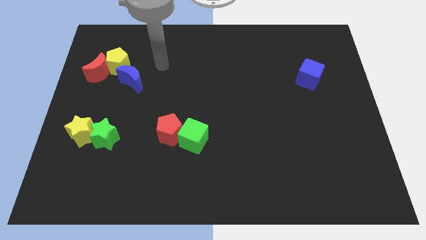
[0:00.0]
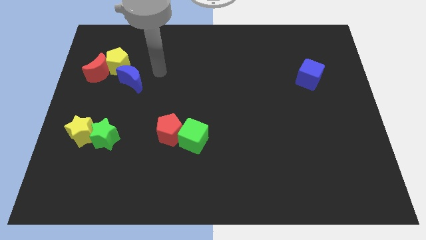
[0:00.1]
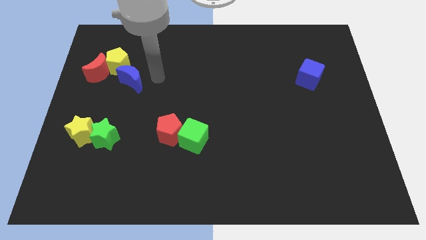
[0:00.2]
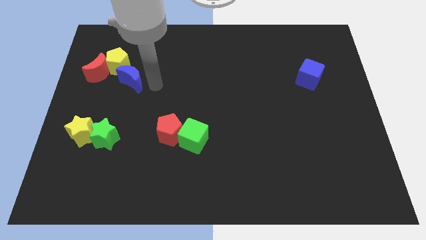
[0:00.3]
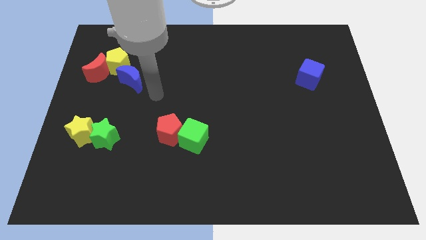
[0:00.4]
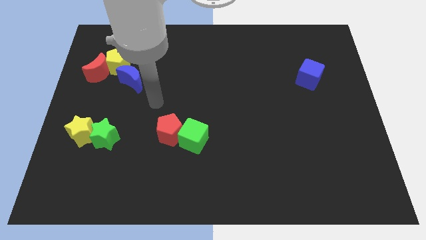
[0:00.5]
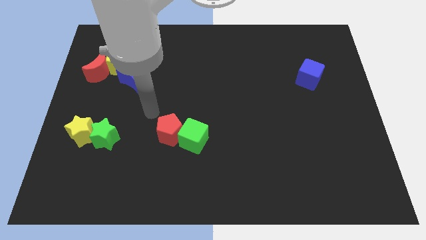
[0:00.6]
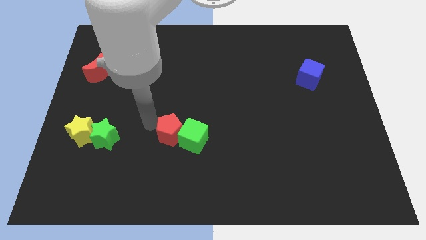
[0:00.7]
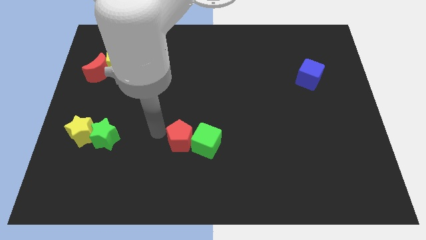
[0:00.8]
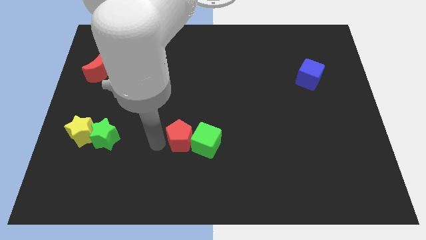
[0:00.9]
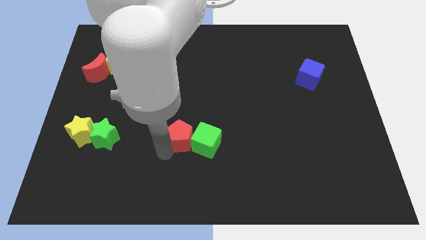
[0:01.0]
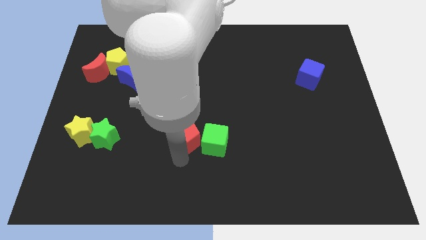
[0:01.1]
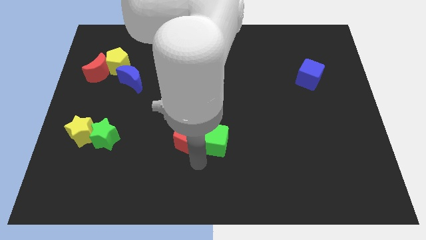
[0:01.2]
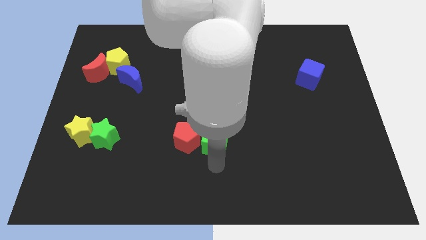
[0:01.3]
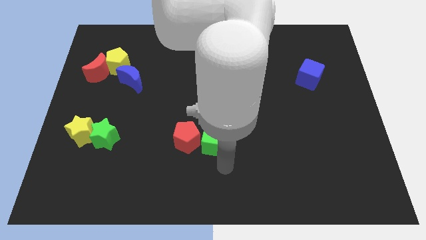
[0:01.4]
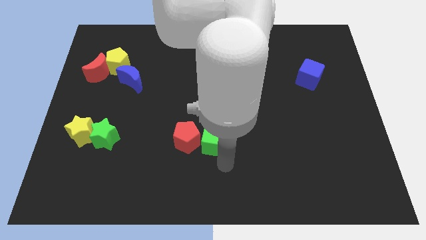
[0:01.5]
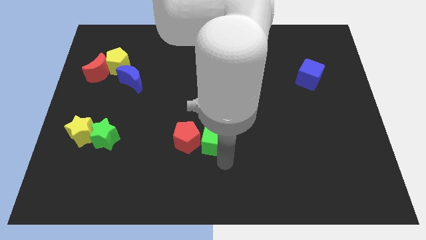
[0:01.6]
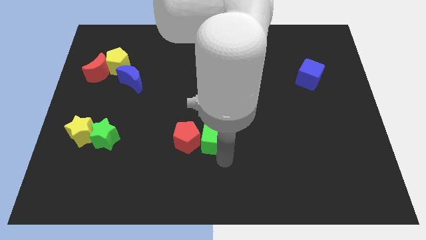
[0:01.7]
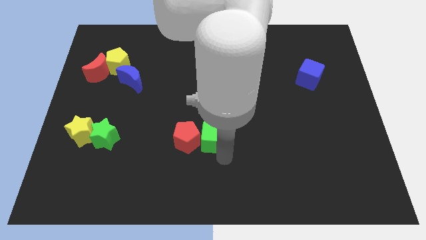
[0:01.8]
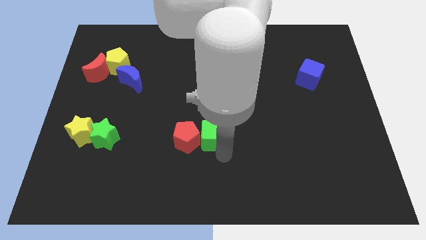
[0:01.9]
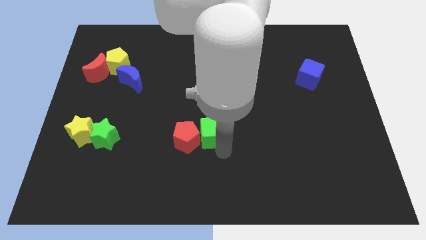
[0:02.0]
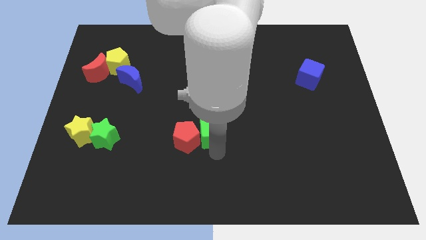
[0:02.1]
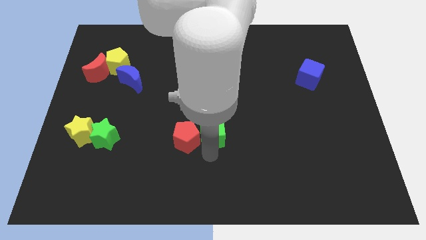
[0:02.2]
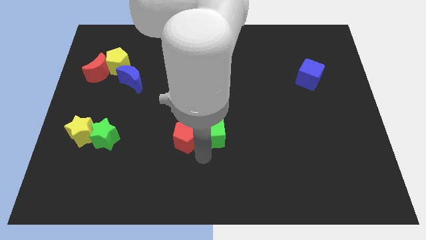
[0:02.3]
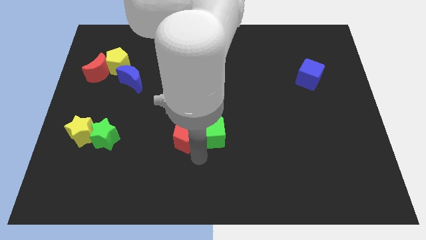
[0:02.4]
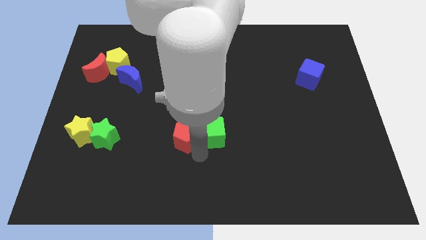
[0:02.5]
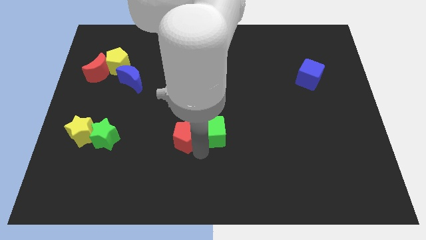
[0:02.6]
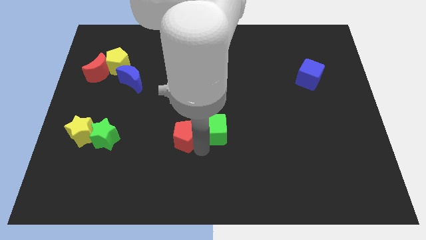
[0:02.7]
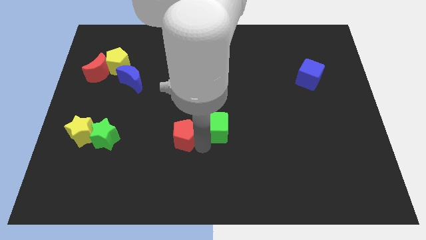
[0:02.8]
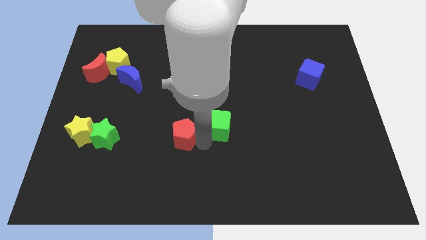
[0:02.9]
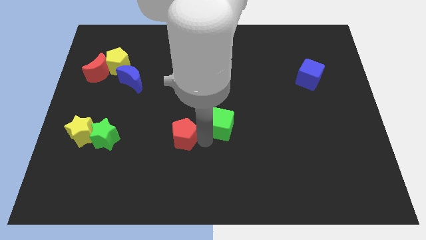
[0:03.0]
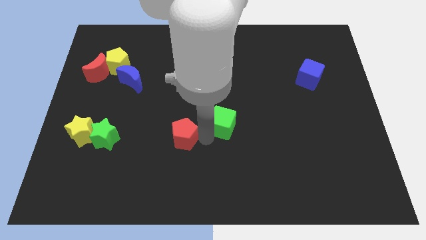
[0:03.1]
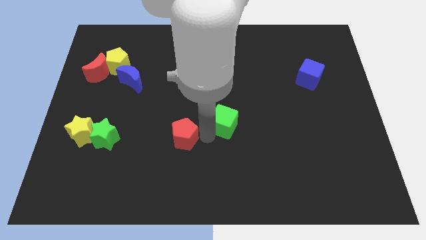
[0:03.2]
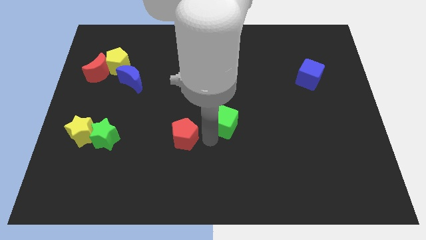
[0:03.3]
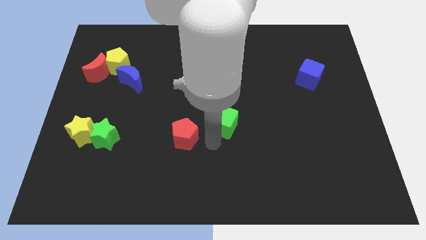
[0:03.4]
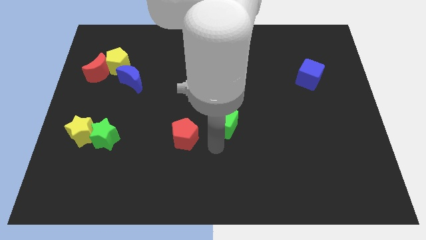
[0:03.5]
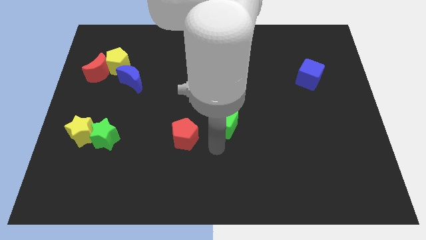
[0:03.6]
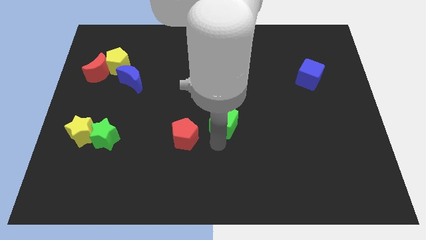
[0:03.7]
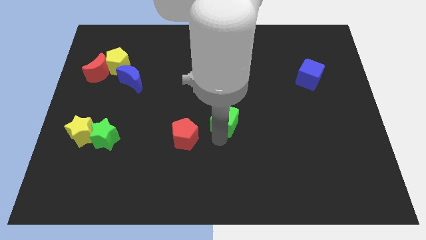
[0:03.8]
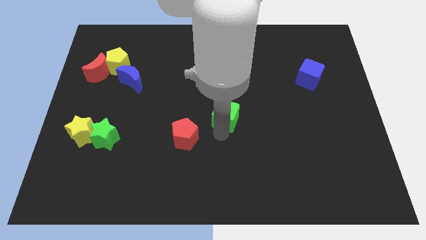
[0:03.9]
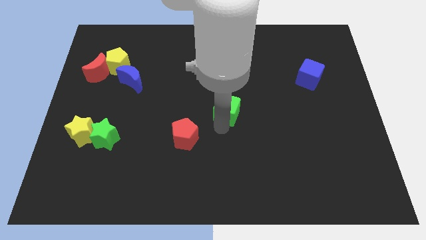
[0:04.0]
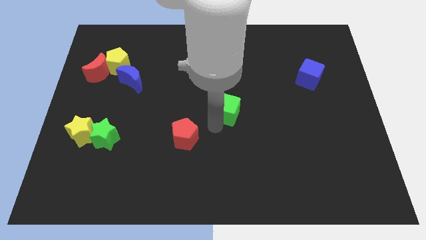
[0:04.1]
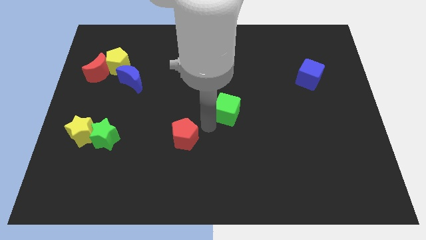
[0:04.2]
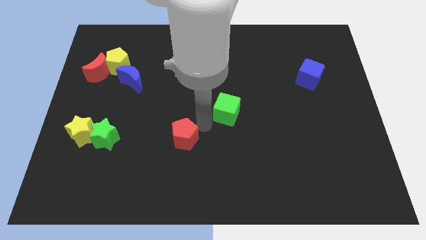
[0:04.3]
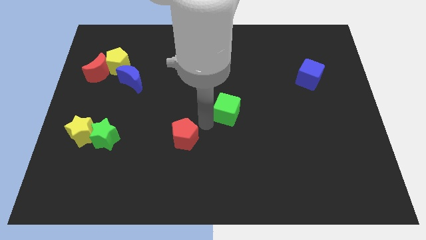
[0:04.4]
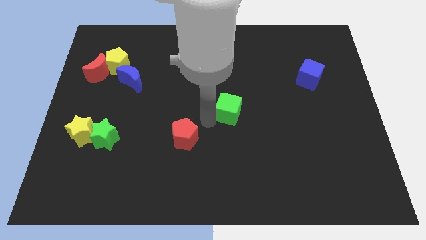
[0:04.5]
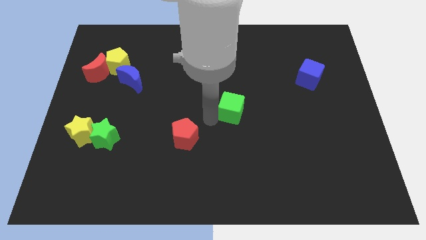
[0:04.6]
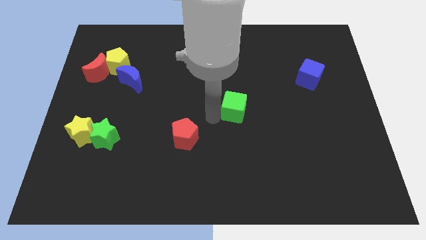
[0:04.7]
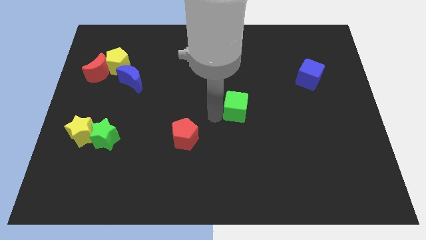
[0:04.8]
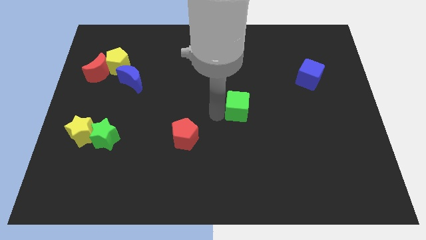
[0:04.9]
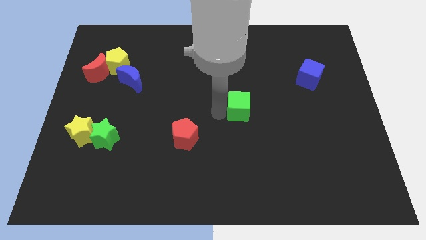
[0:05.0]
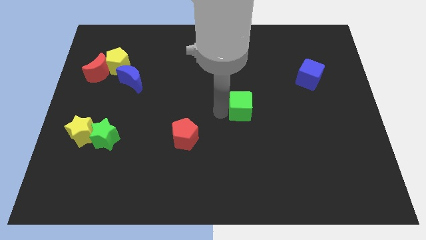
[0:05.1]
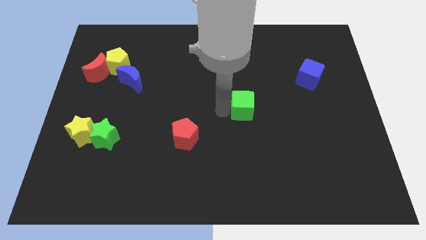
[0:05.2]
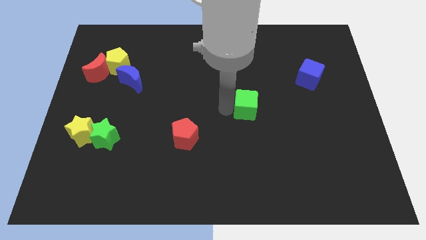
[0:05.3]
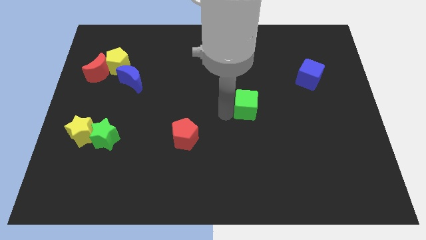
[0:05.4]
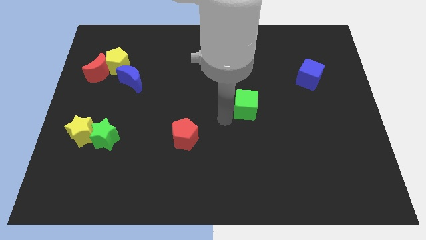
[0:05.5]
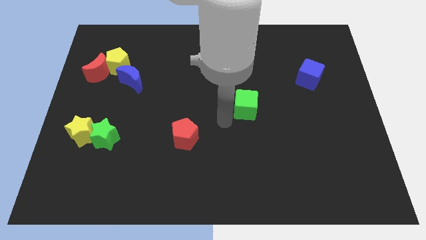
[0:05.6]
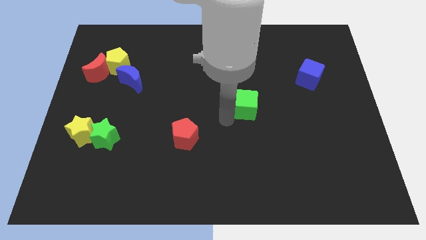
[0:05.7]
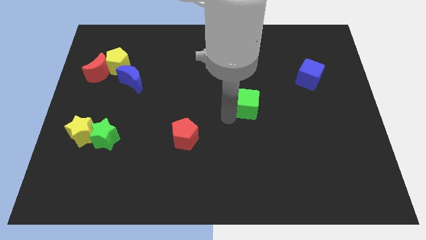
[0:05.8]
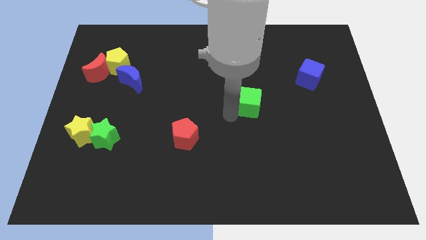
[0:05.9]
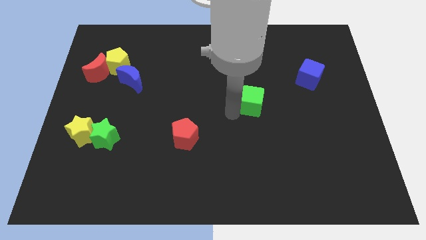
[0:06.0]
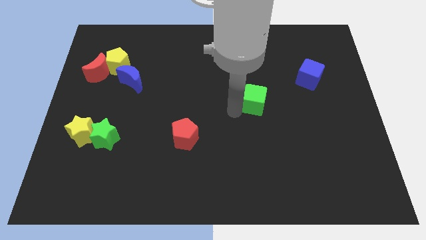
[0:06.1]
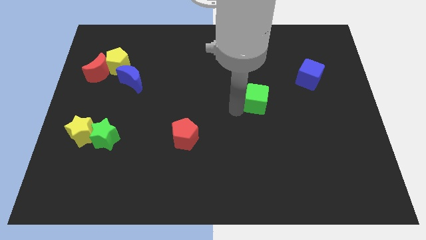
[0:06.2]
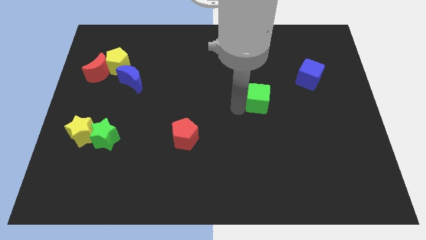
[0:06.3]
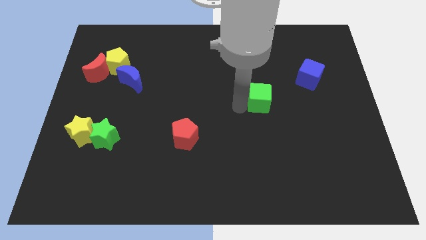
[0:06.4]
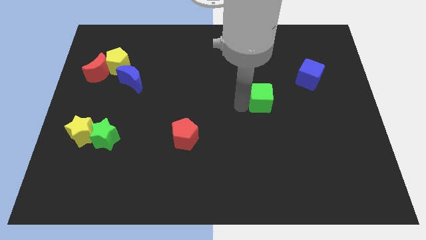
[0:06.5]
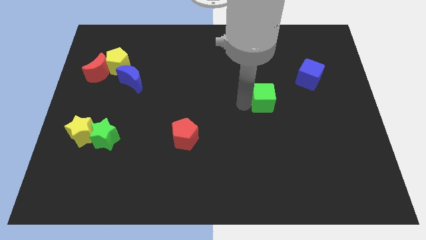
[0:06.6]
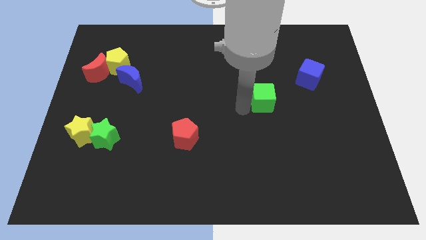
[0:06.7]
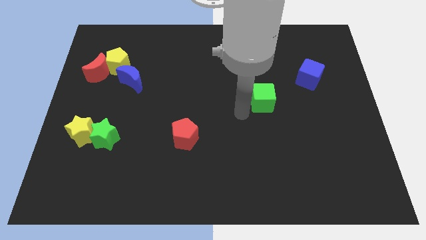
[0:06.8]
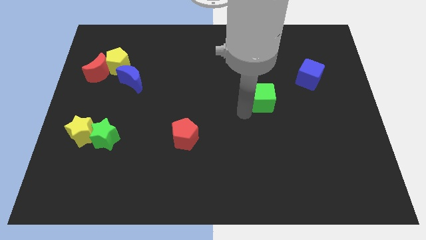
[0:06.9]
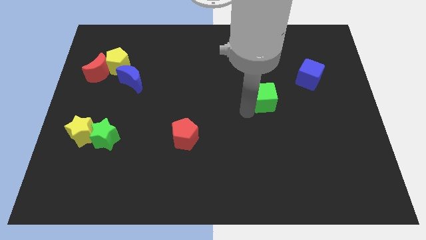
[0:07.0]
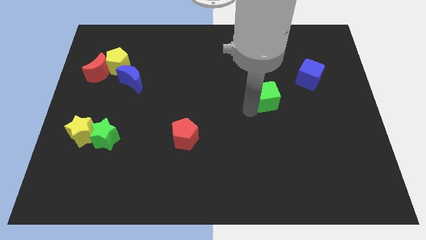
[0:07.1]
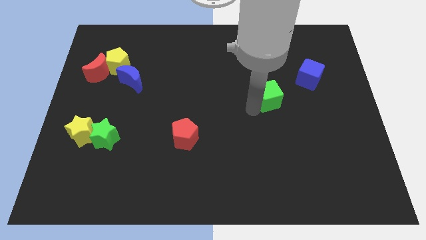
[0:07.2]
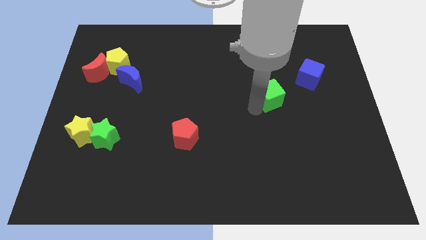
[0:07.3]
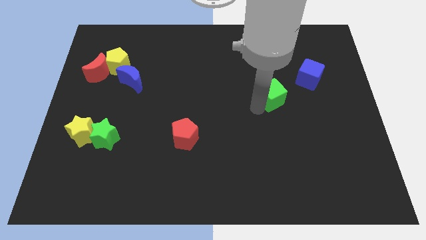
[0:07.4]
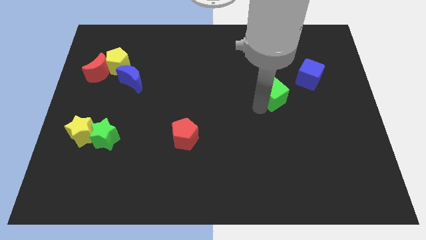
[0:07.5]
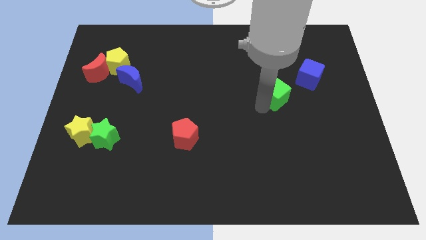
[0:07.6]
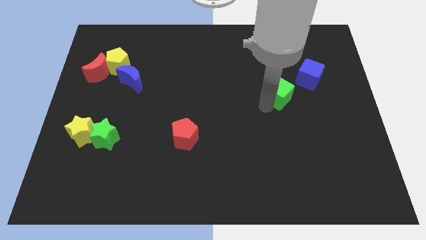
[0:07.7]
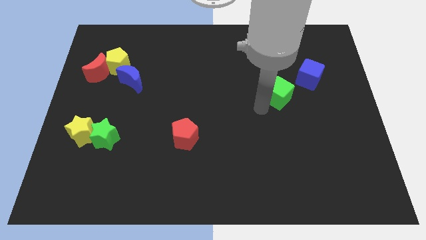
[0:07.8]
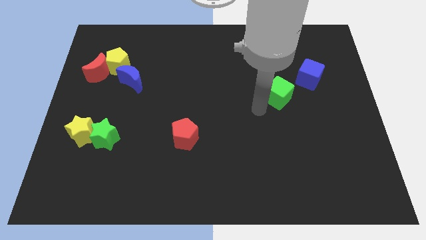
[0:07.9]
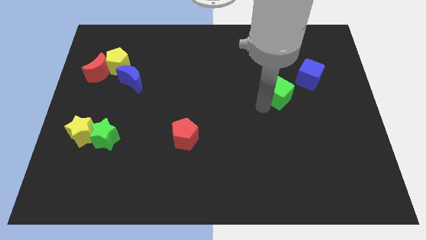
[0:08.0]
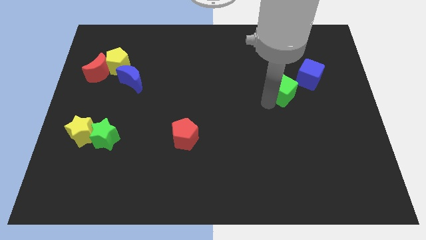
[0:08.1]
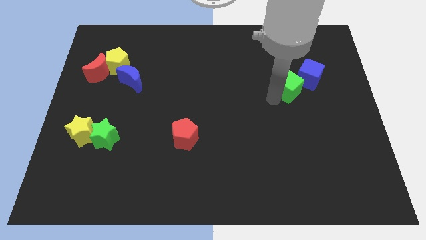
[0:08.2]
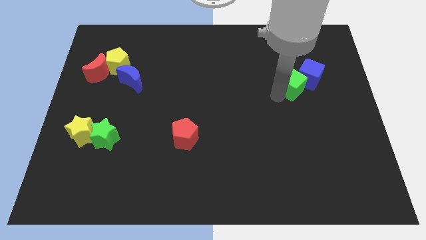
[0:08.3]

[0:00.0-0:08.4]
move the green cube next to the blue cube
